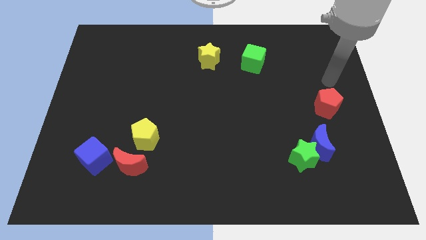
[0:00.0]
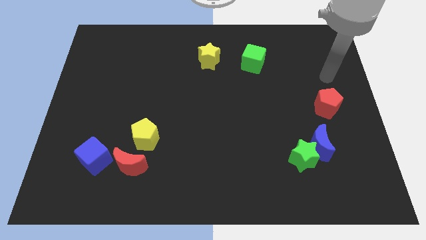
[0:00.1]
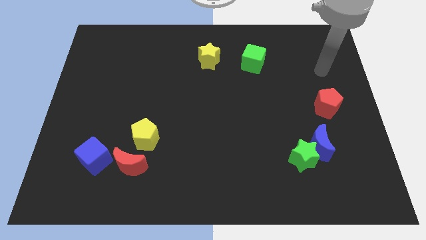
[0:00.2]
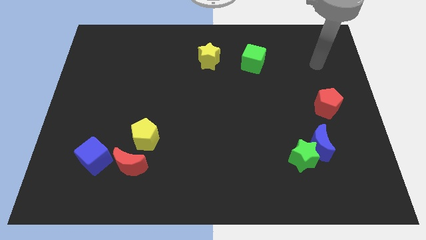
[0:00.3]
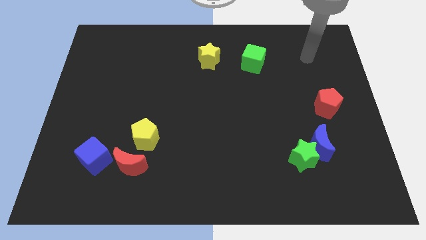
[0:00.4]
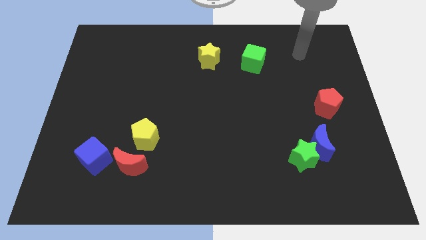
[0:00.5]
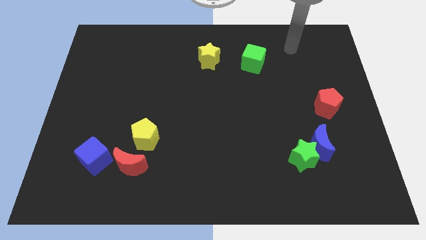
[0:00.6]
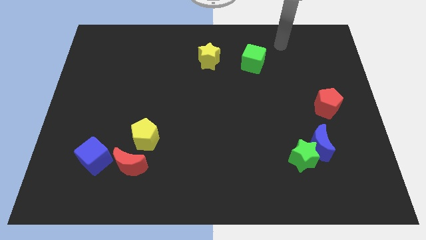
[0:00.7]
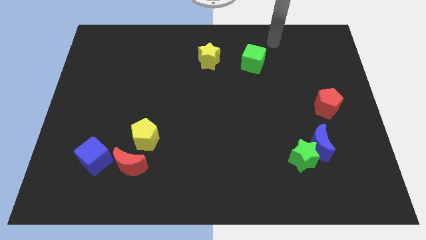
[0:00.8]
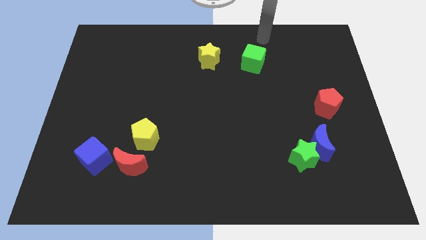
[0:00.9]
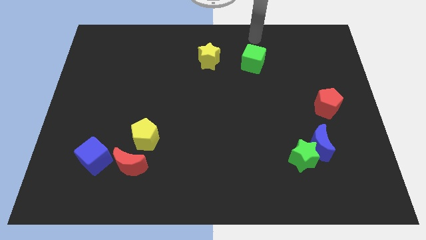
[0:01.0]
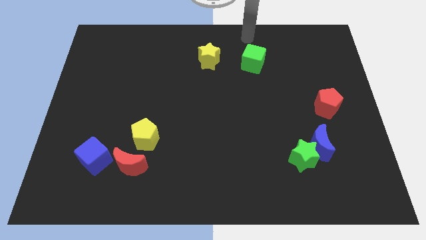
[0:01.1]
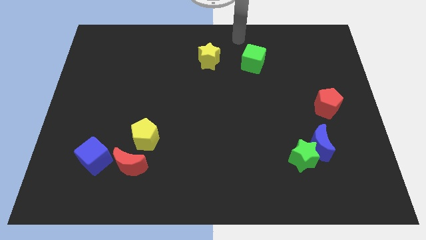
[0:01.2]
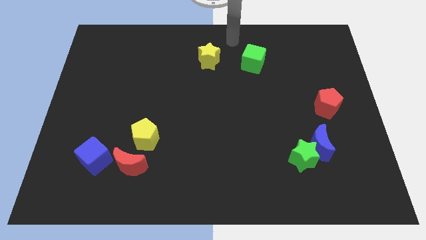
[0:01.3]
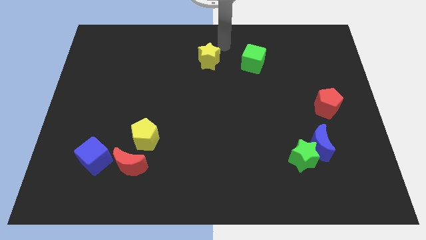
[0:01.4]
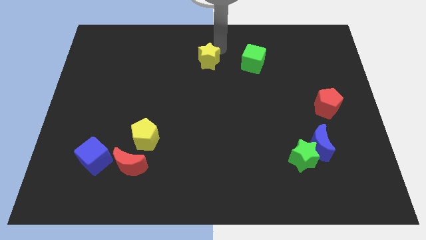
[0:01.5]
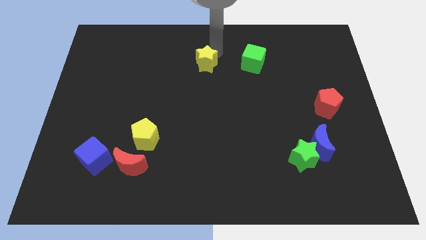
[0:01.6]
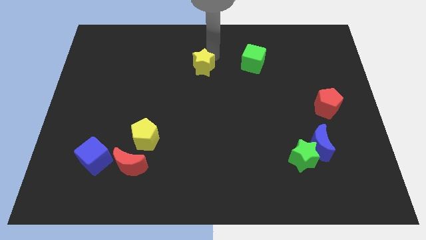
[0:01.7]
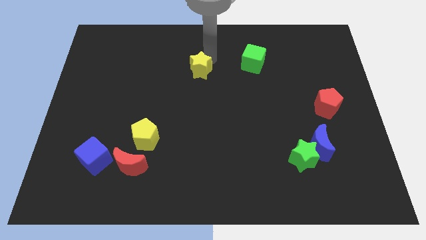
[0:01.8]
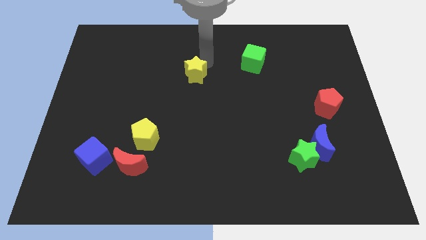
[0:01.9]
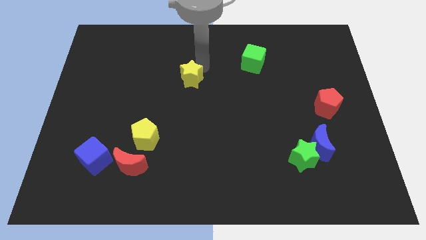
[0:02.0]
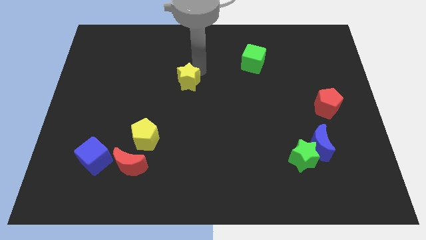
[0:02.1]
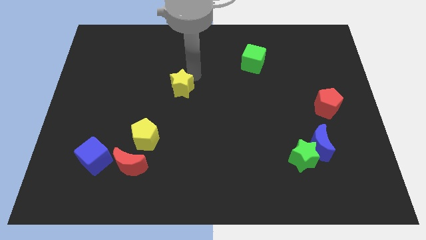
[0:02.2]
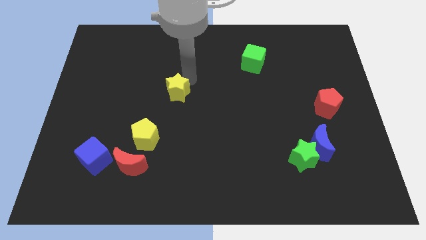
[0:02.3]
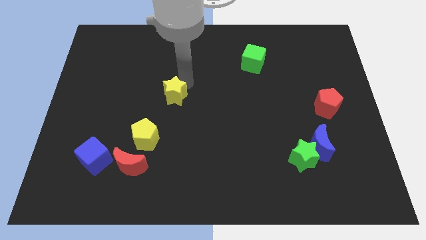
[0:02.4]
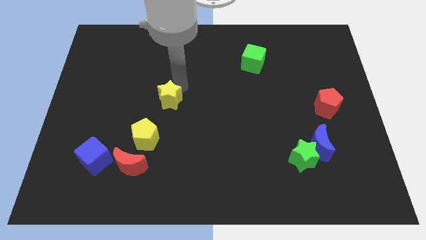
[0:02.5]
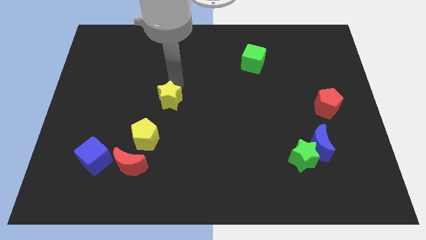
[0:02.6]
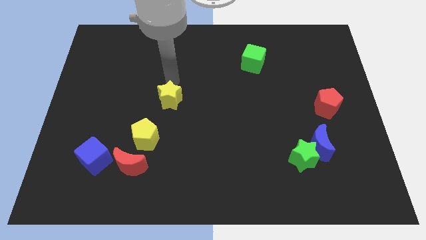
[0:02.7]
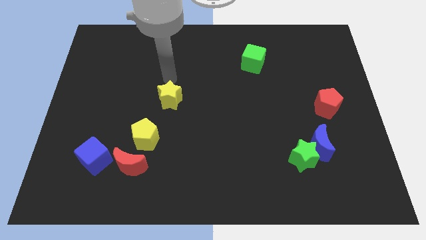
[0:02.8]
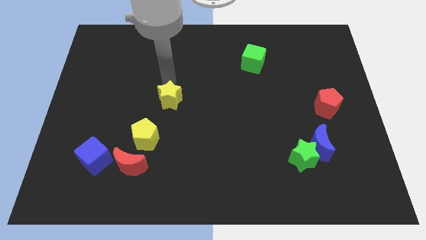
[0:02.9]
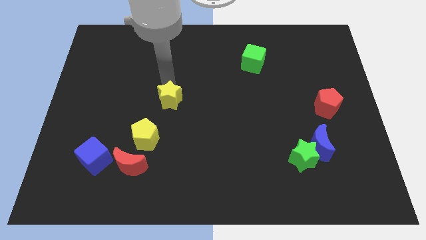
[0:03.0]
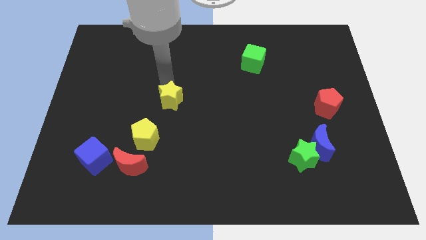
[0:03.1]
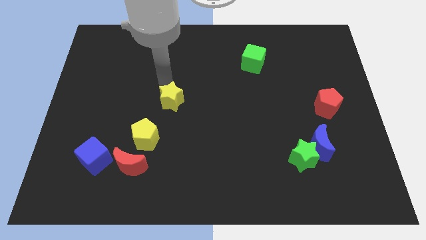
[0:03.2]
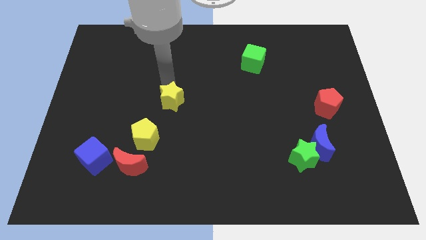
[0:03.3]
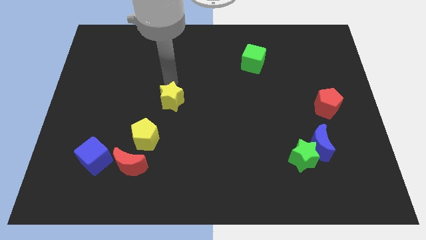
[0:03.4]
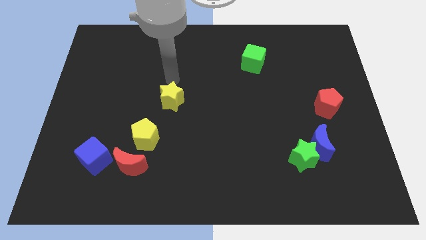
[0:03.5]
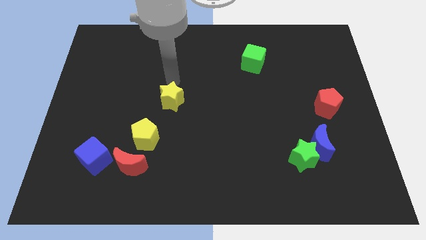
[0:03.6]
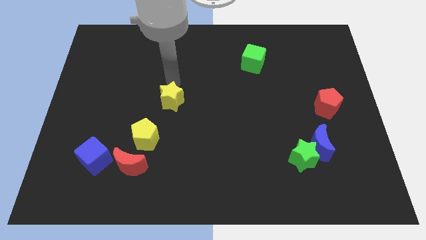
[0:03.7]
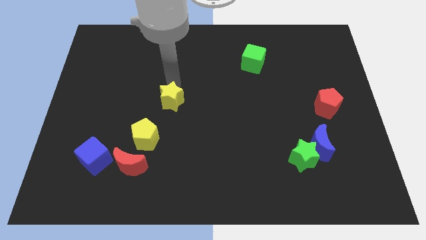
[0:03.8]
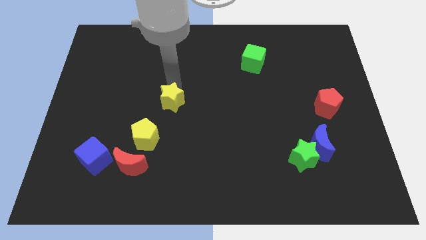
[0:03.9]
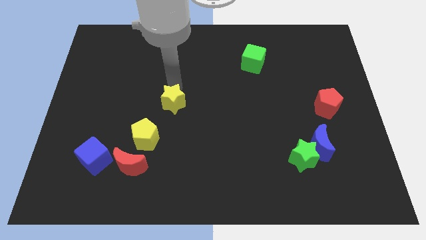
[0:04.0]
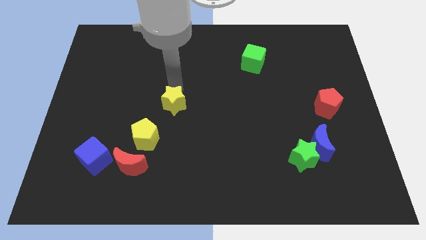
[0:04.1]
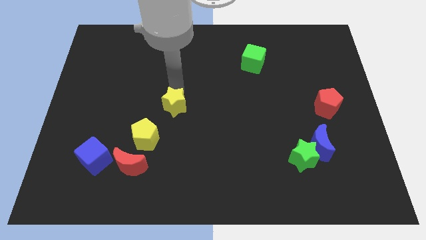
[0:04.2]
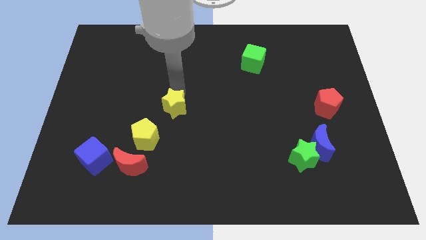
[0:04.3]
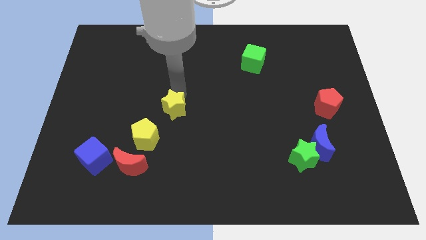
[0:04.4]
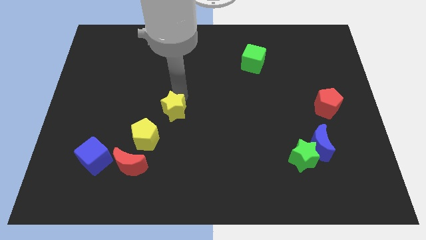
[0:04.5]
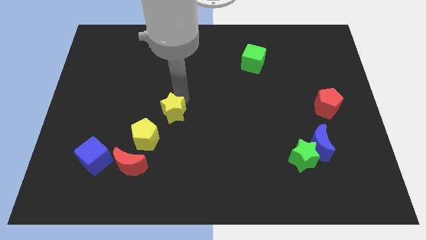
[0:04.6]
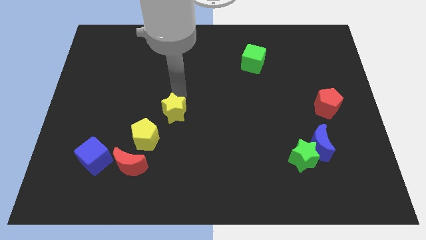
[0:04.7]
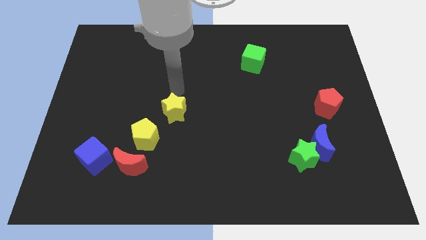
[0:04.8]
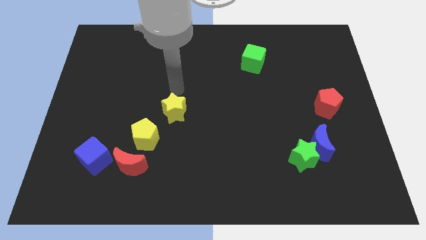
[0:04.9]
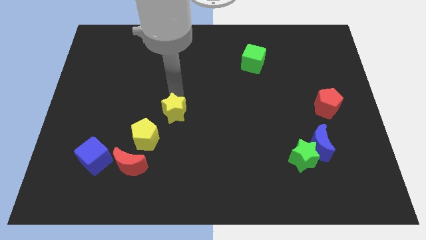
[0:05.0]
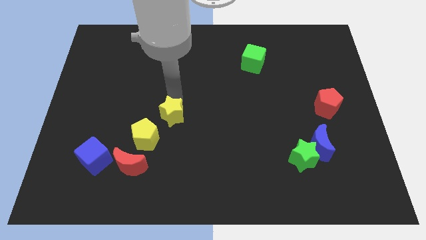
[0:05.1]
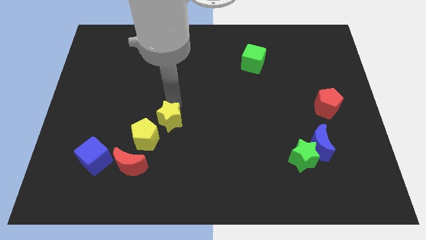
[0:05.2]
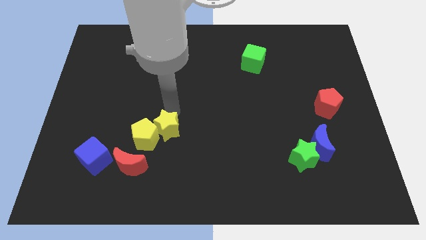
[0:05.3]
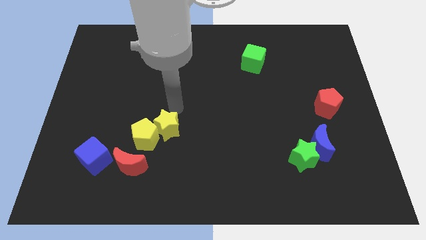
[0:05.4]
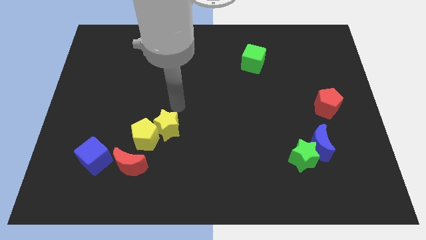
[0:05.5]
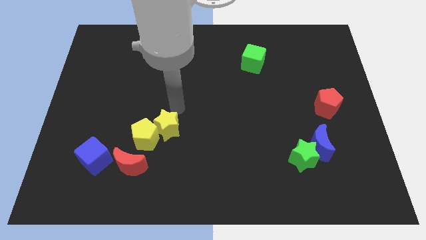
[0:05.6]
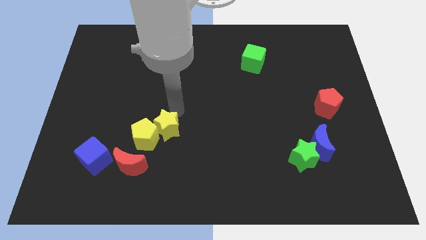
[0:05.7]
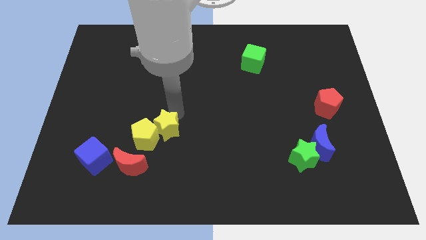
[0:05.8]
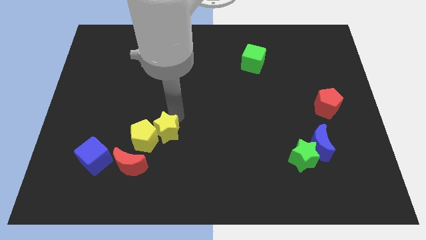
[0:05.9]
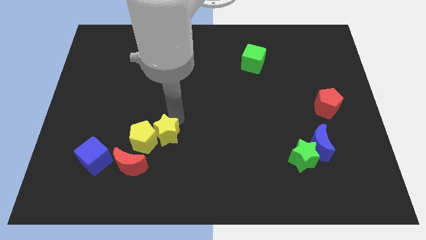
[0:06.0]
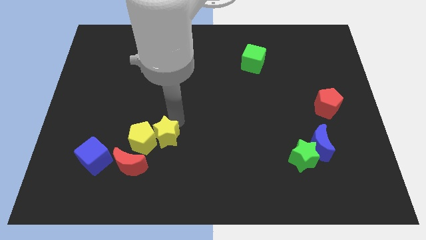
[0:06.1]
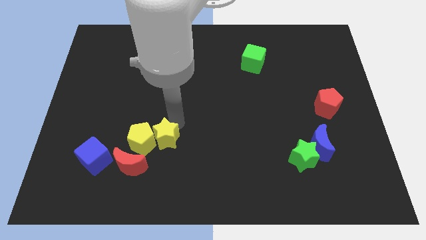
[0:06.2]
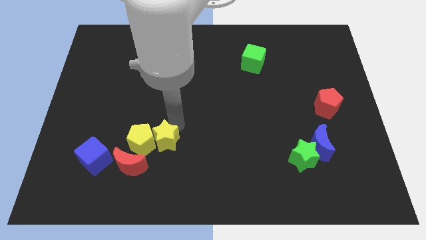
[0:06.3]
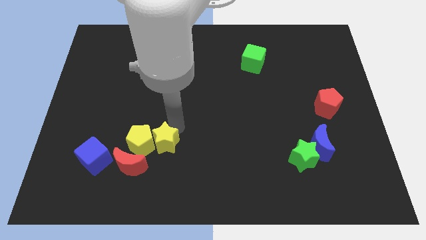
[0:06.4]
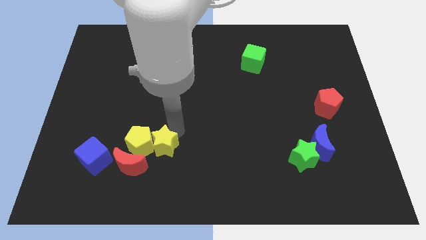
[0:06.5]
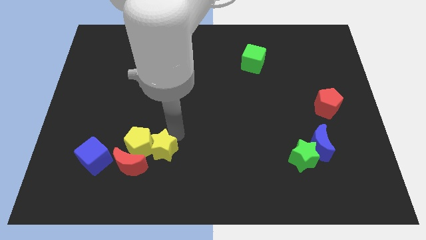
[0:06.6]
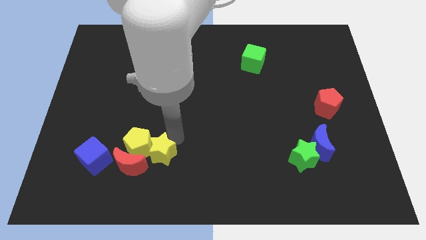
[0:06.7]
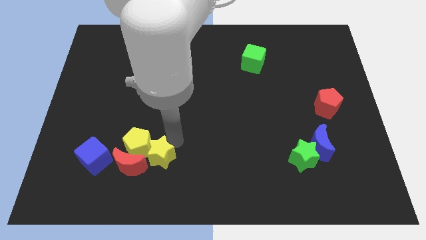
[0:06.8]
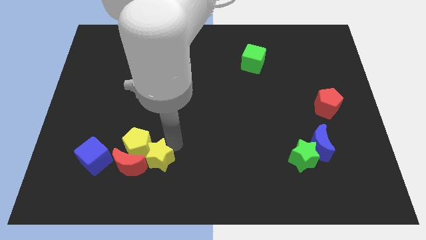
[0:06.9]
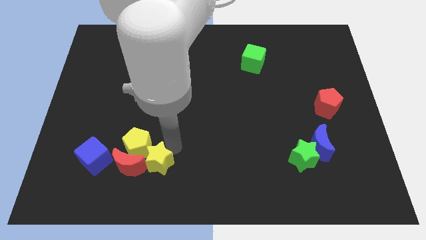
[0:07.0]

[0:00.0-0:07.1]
push the yellow star next to the red moon
